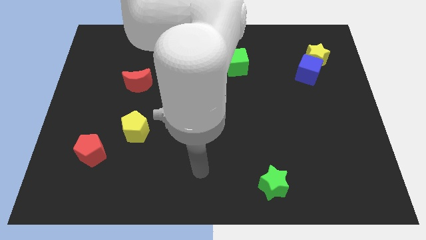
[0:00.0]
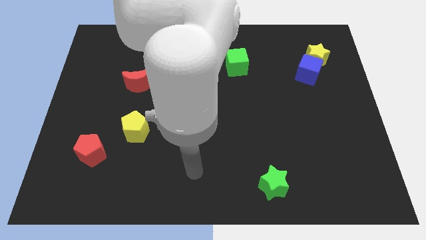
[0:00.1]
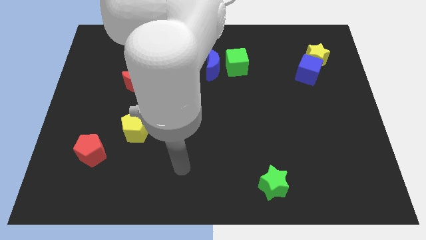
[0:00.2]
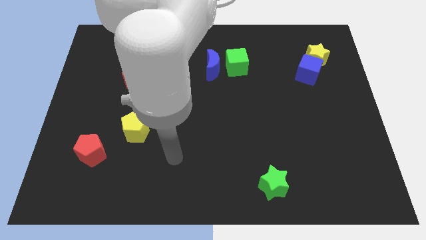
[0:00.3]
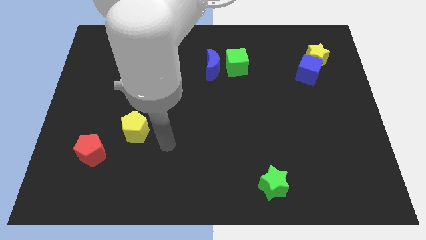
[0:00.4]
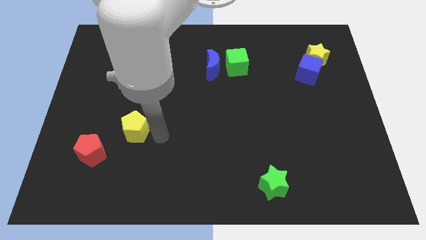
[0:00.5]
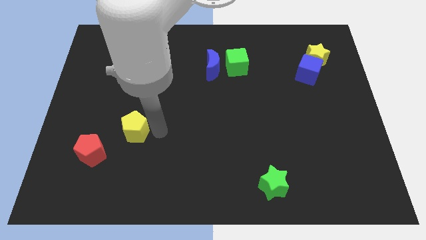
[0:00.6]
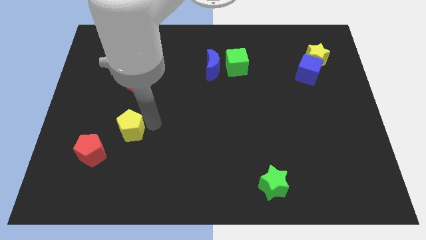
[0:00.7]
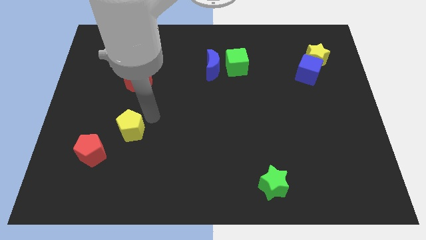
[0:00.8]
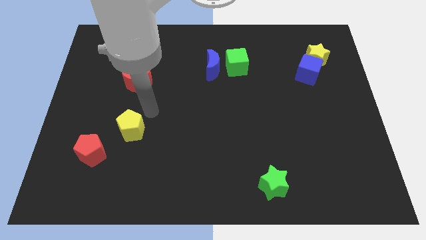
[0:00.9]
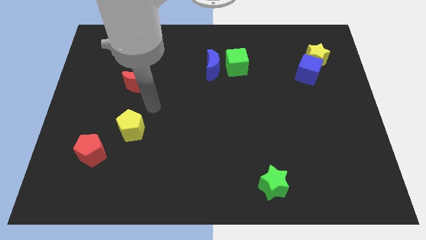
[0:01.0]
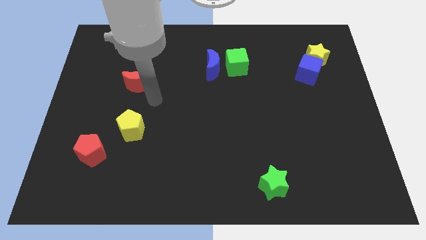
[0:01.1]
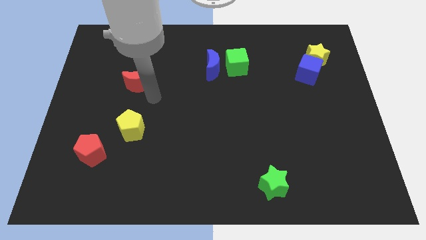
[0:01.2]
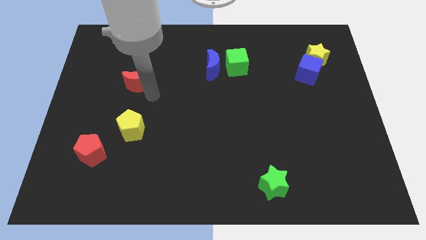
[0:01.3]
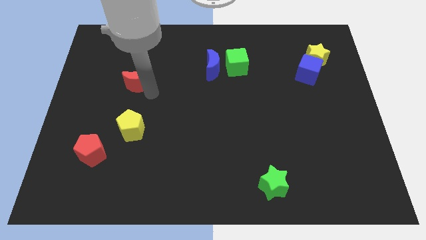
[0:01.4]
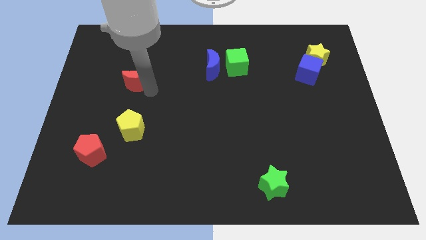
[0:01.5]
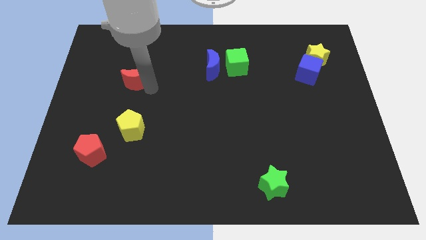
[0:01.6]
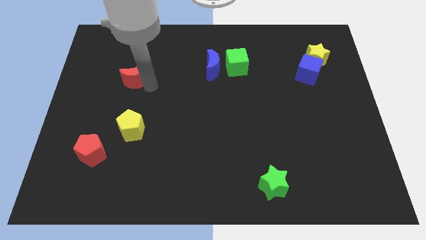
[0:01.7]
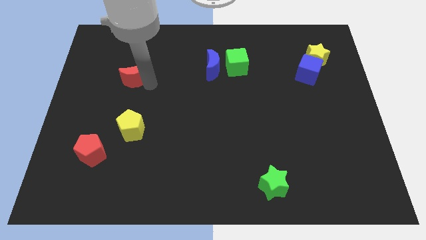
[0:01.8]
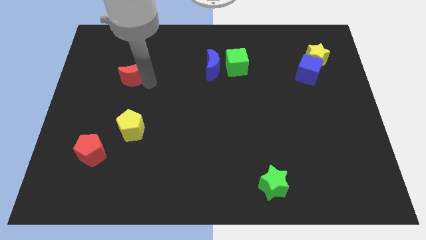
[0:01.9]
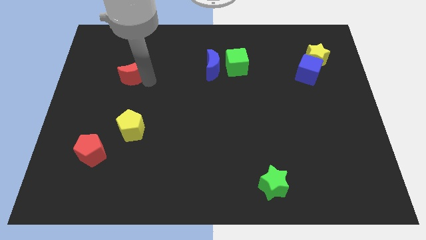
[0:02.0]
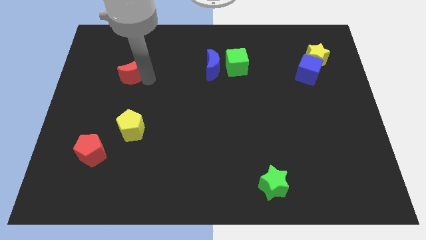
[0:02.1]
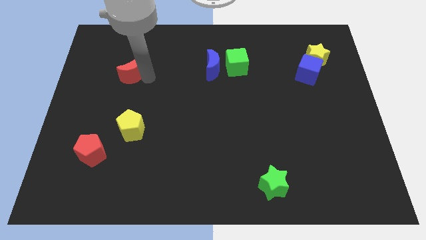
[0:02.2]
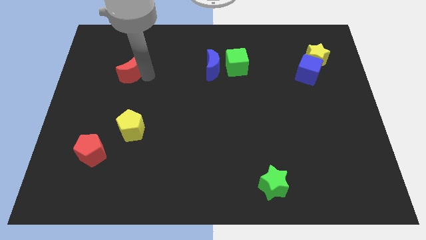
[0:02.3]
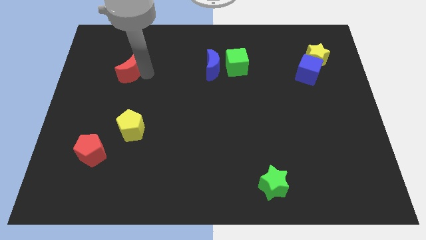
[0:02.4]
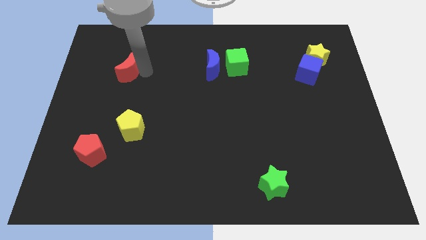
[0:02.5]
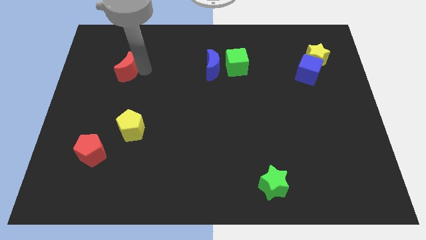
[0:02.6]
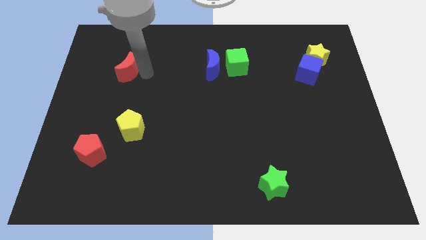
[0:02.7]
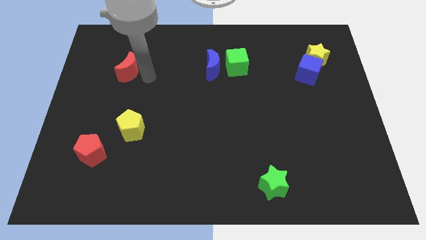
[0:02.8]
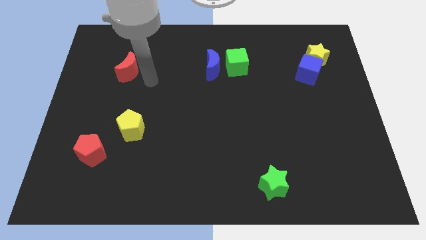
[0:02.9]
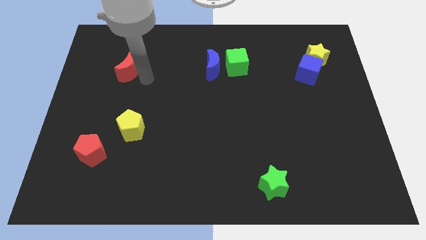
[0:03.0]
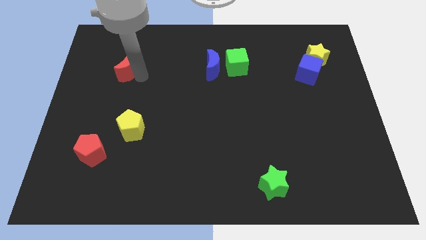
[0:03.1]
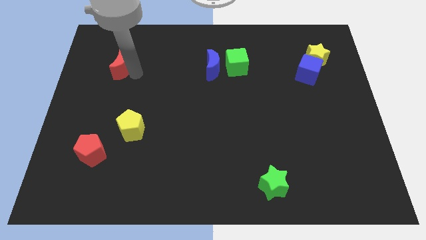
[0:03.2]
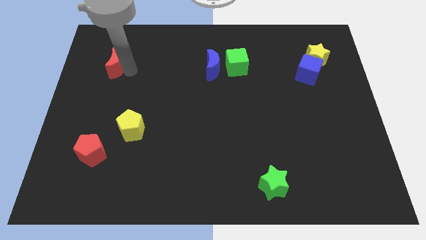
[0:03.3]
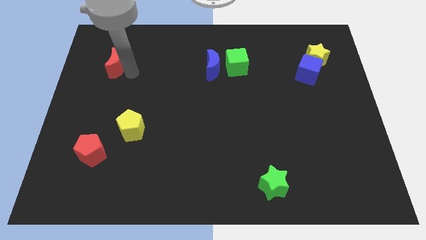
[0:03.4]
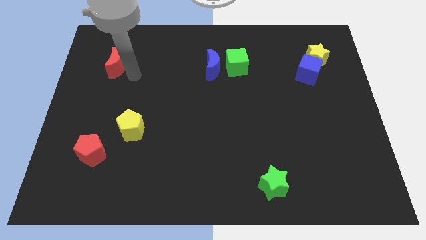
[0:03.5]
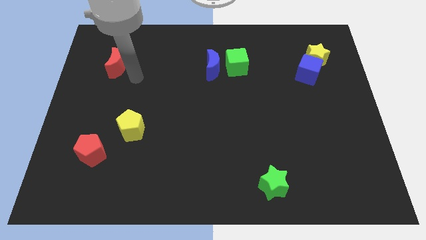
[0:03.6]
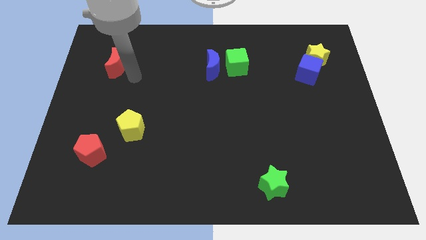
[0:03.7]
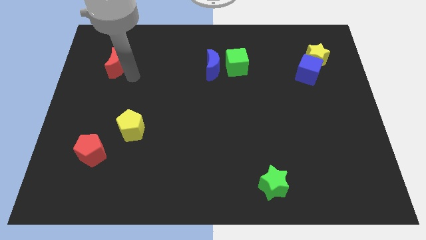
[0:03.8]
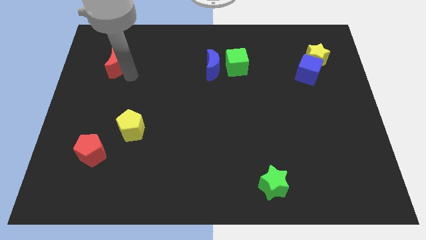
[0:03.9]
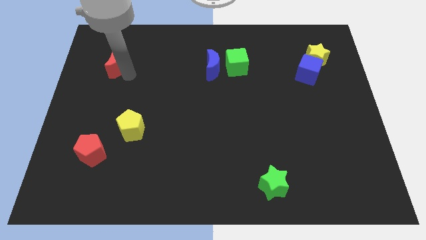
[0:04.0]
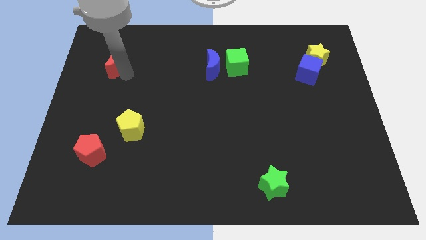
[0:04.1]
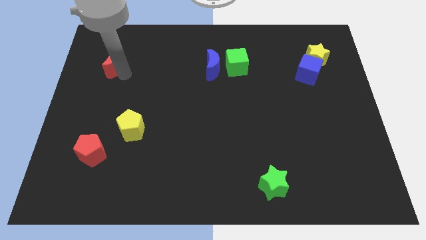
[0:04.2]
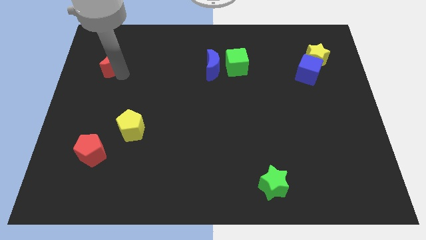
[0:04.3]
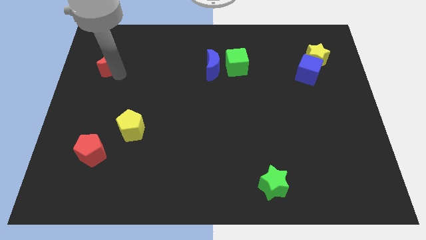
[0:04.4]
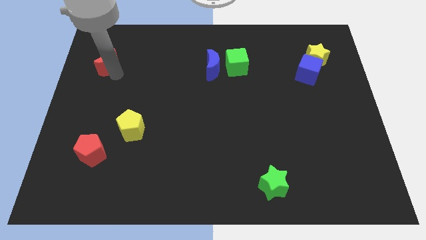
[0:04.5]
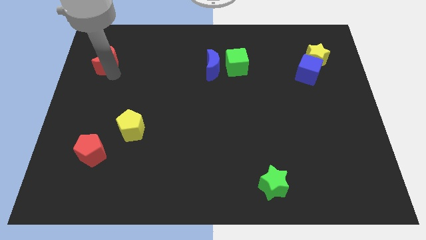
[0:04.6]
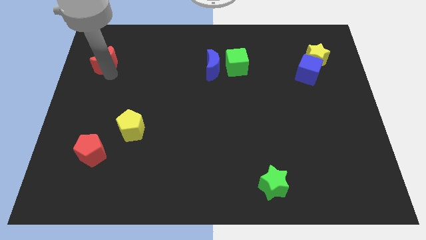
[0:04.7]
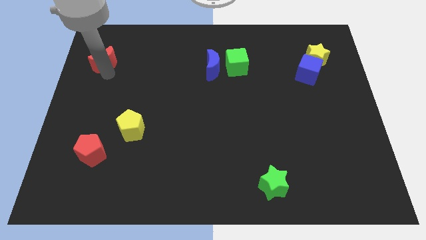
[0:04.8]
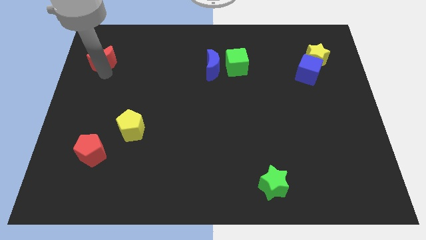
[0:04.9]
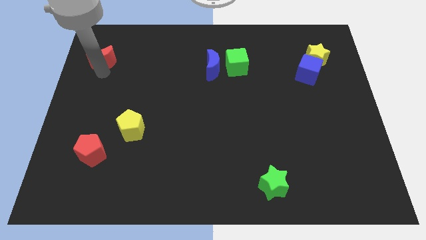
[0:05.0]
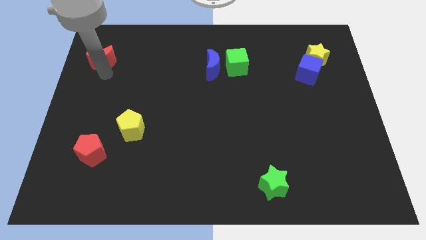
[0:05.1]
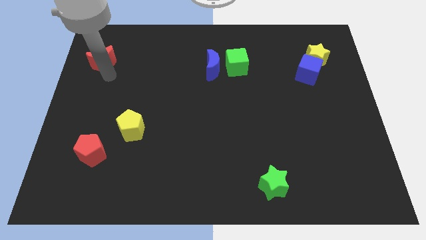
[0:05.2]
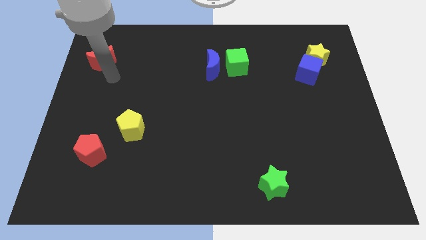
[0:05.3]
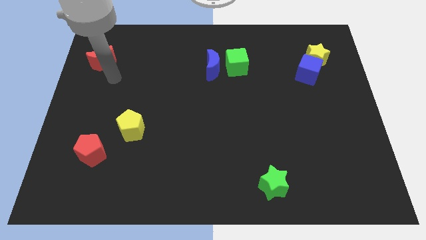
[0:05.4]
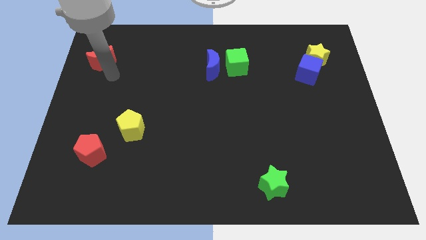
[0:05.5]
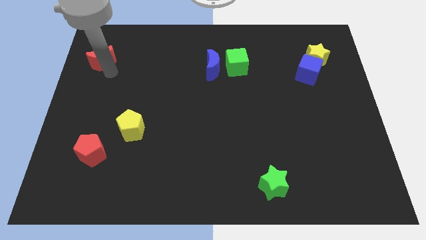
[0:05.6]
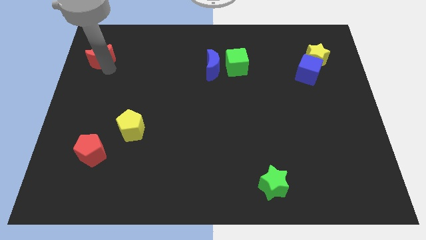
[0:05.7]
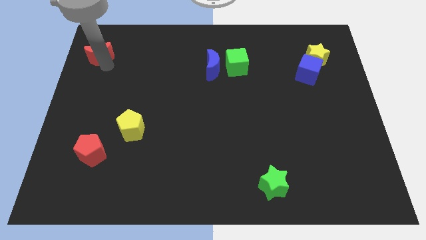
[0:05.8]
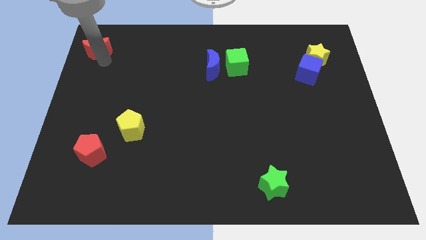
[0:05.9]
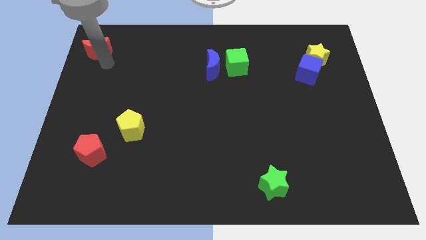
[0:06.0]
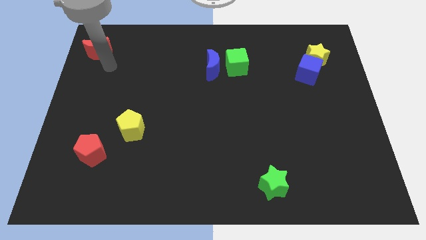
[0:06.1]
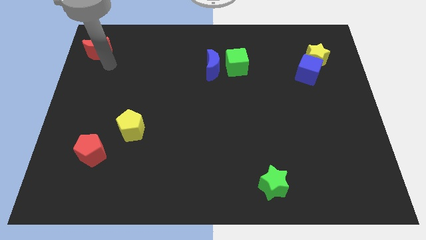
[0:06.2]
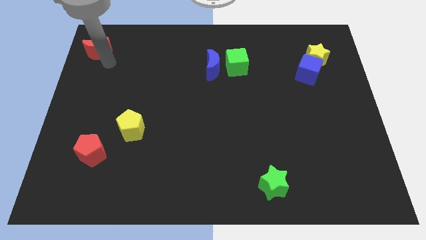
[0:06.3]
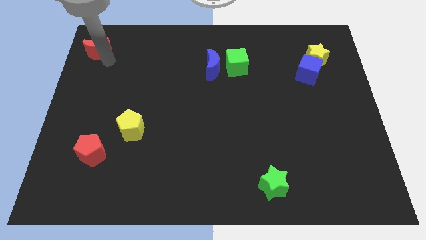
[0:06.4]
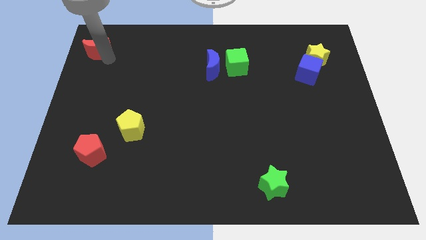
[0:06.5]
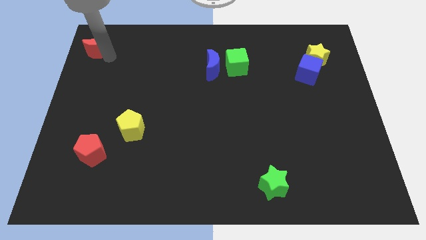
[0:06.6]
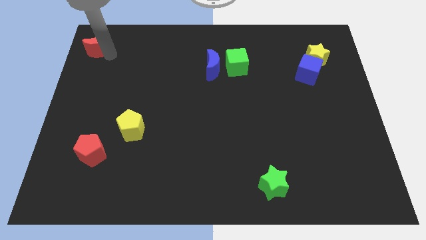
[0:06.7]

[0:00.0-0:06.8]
slide the red moon to the top left of the board

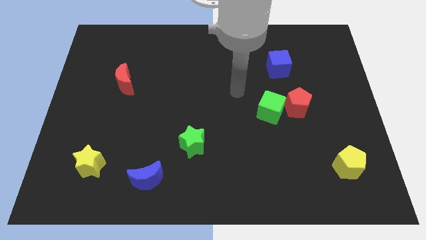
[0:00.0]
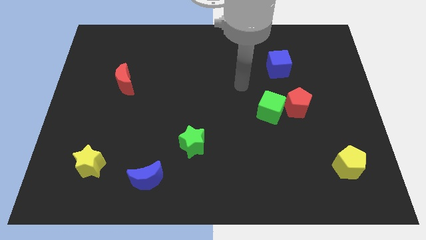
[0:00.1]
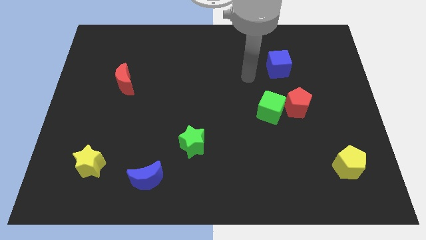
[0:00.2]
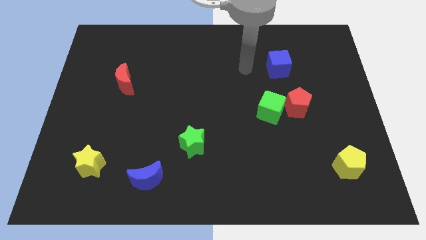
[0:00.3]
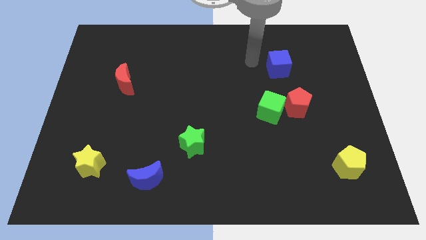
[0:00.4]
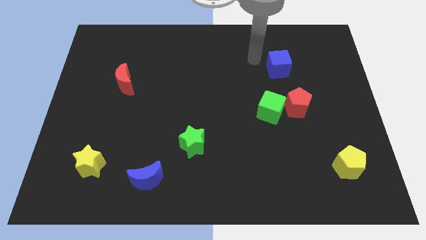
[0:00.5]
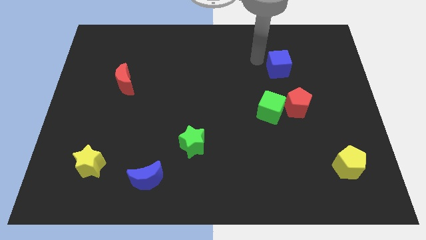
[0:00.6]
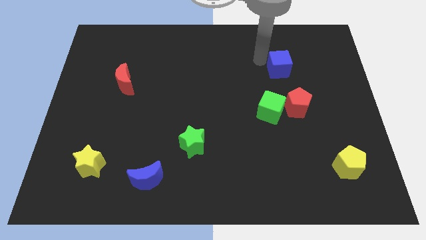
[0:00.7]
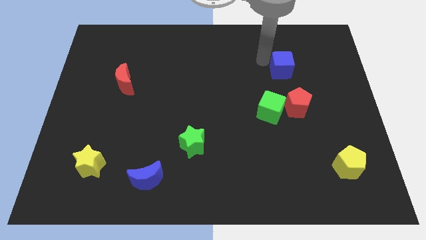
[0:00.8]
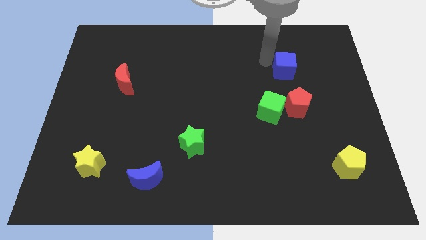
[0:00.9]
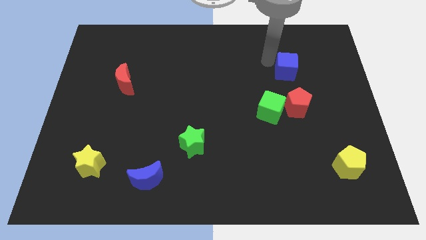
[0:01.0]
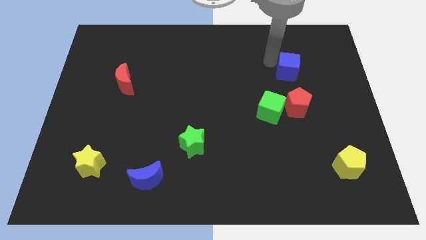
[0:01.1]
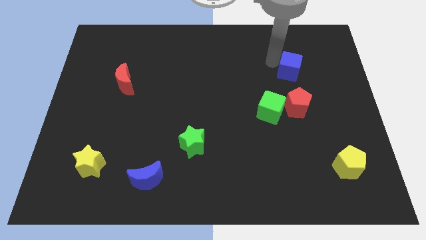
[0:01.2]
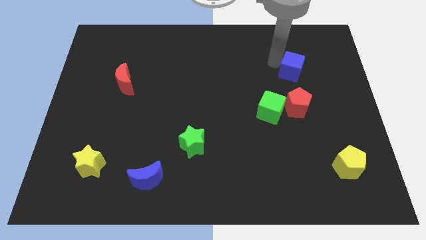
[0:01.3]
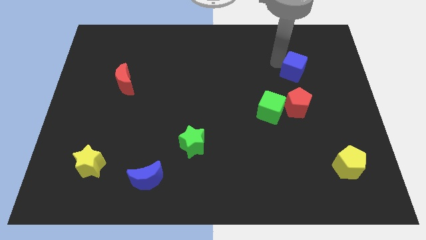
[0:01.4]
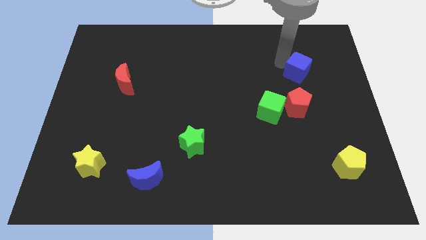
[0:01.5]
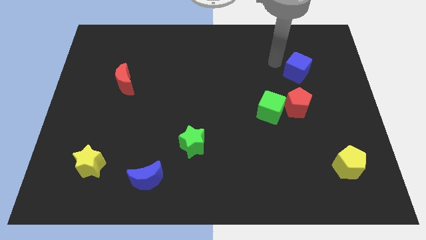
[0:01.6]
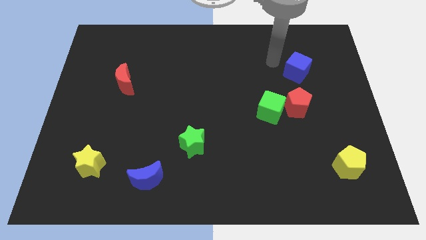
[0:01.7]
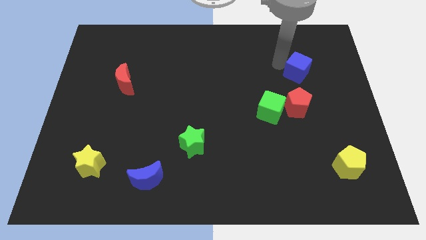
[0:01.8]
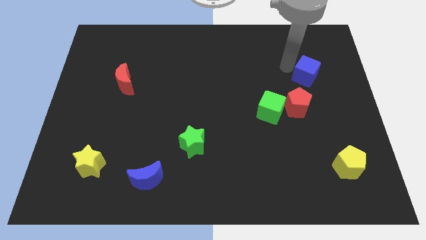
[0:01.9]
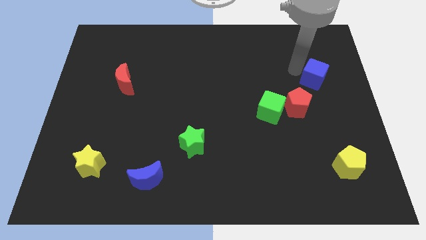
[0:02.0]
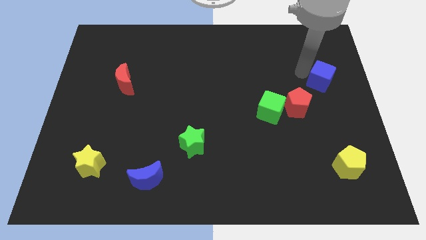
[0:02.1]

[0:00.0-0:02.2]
put the blue cube to the center right
